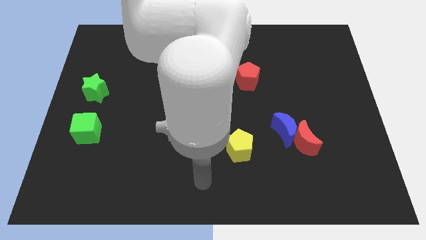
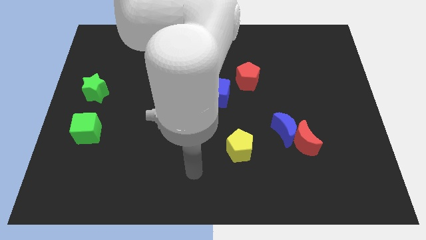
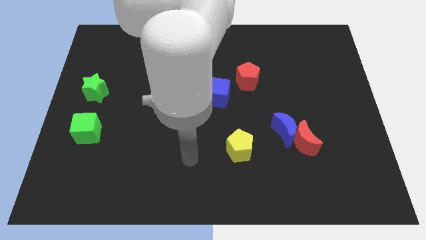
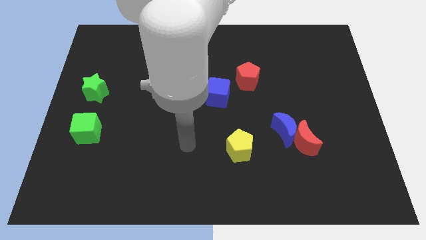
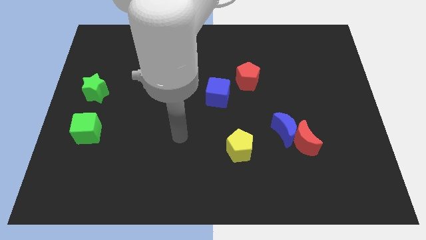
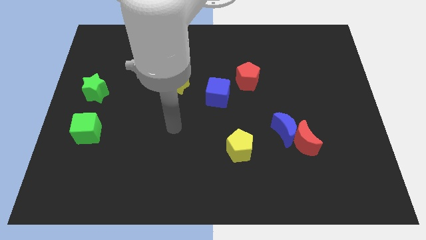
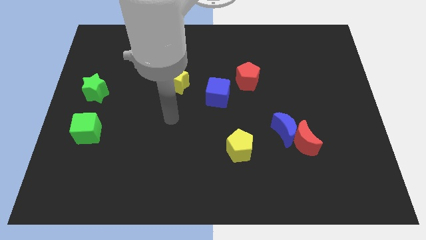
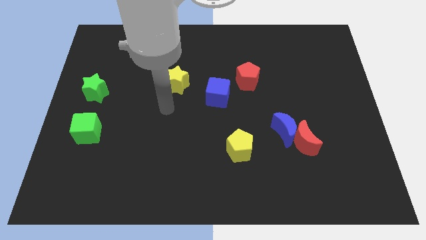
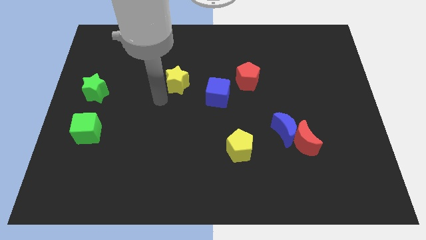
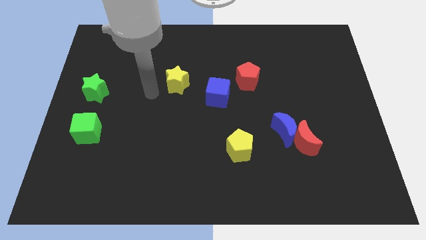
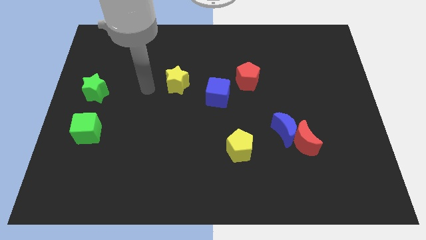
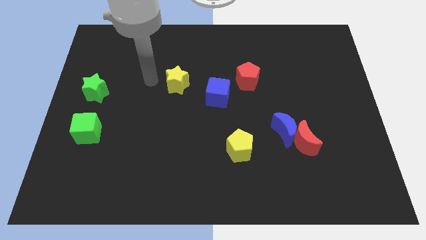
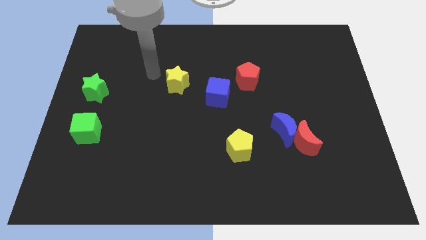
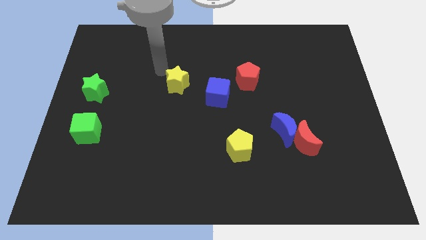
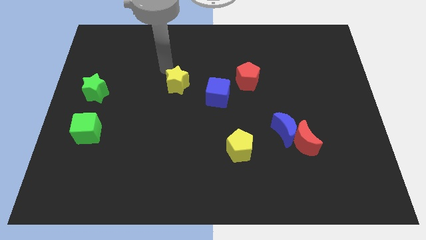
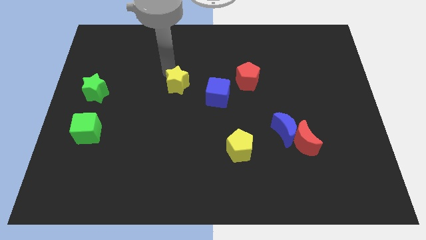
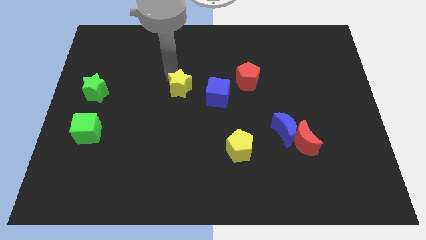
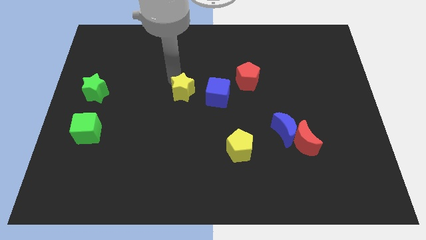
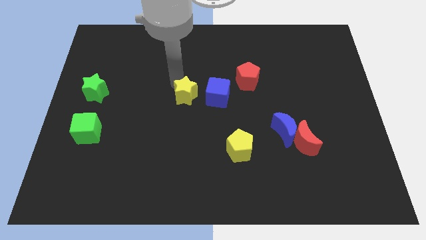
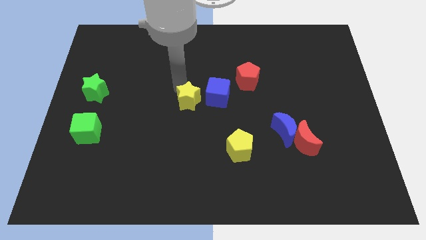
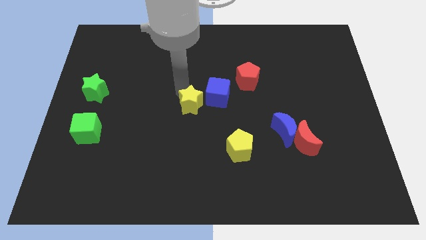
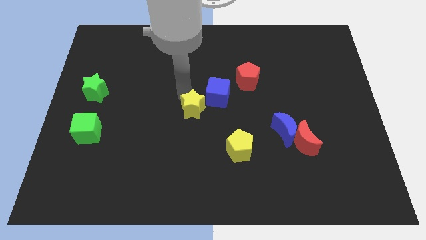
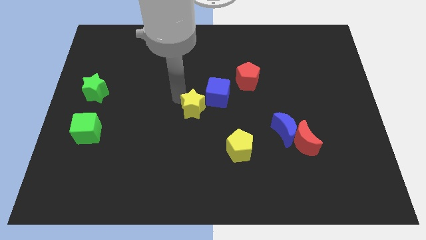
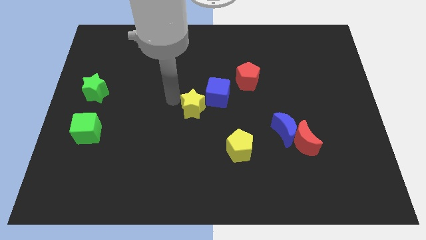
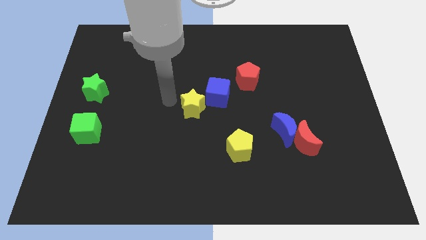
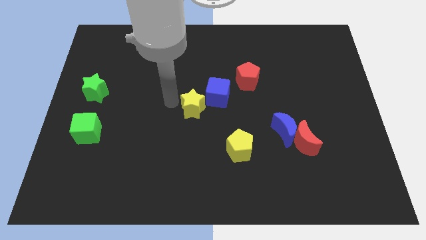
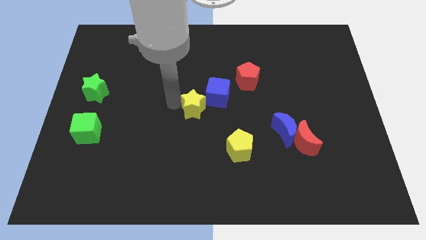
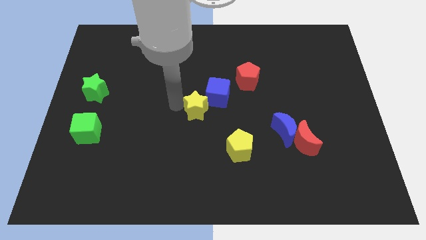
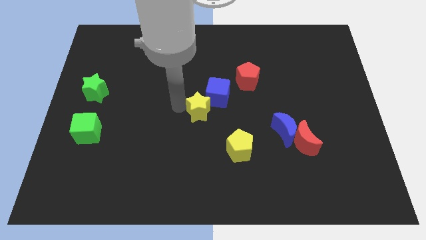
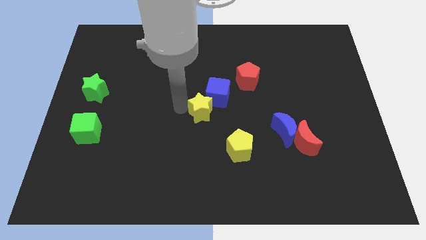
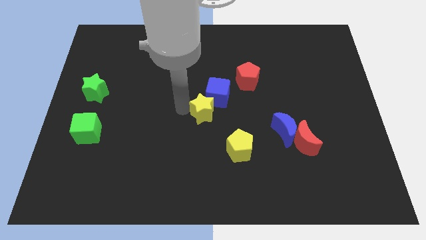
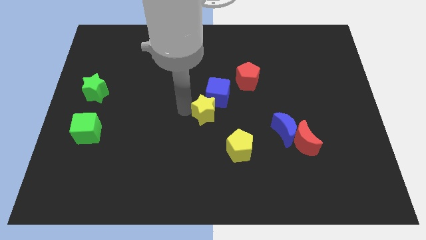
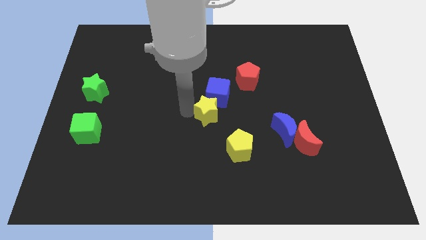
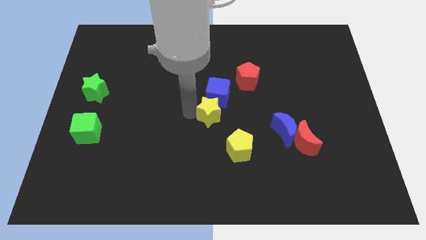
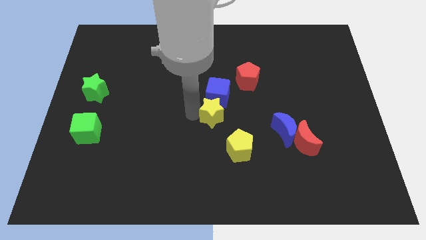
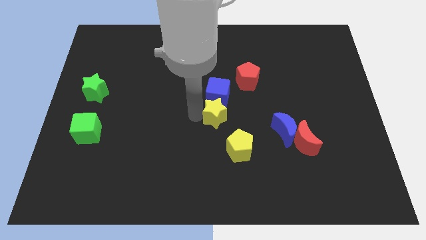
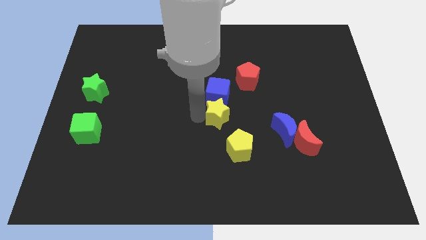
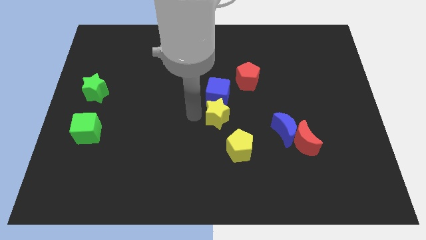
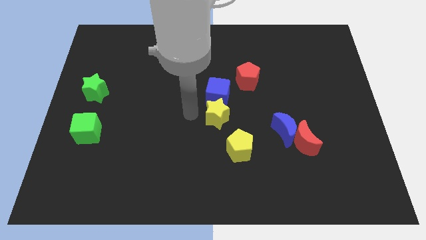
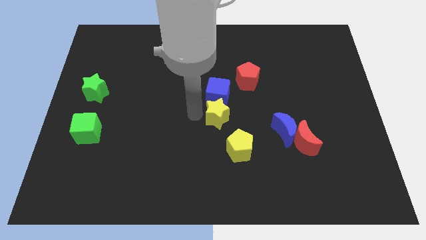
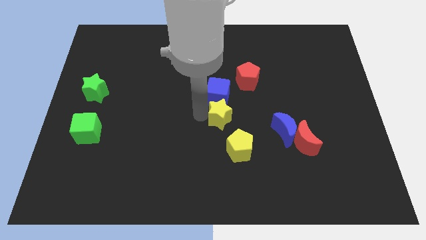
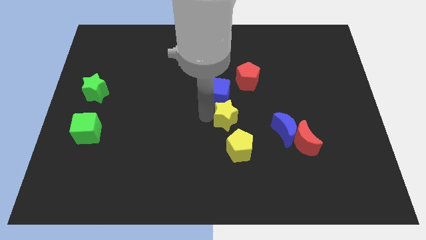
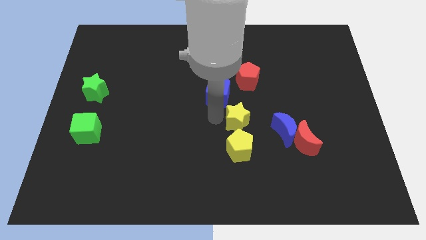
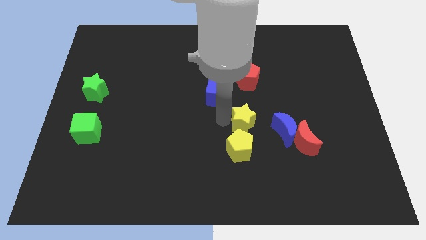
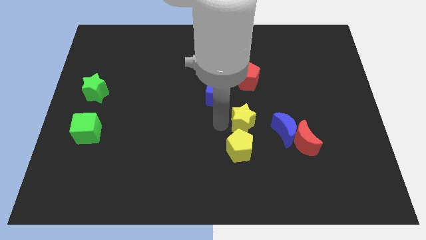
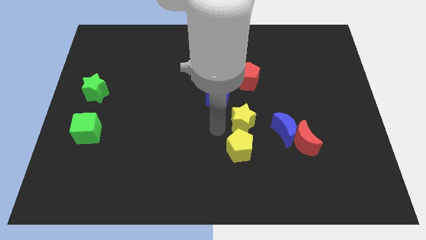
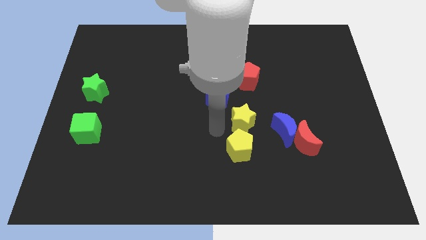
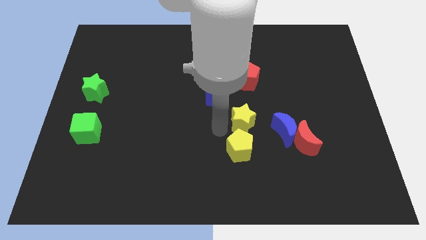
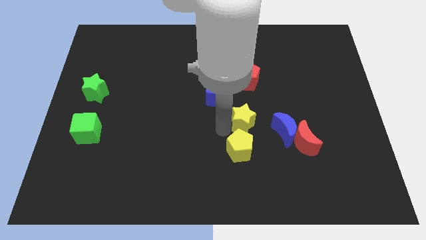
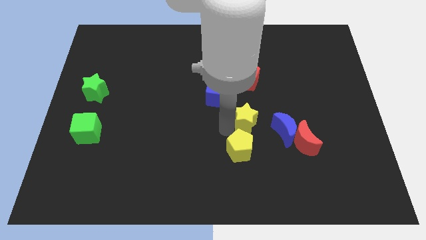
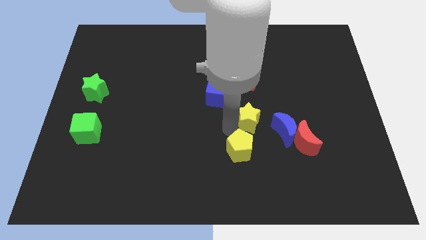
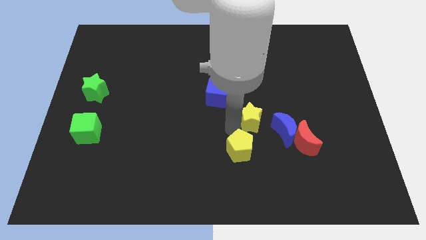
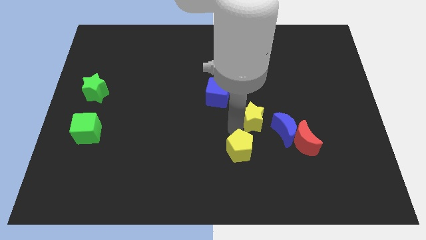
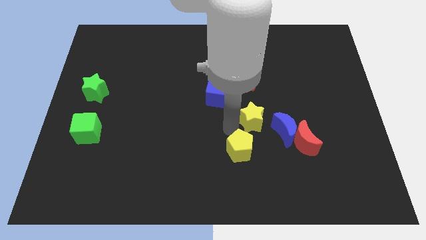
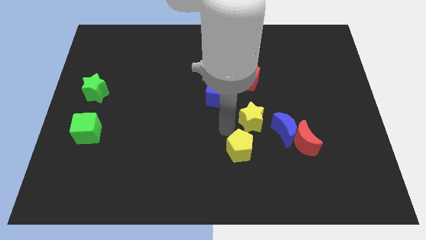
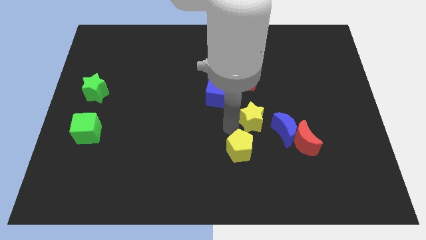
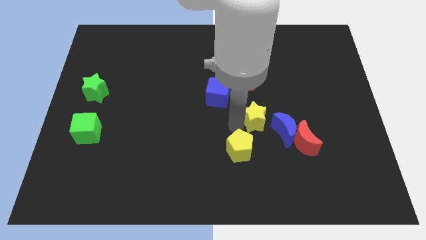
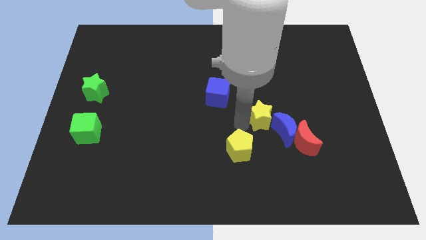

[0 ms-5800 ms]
move the yellow star to the blue moon
